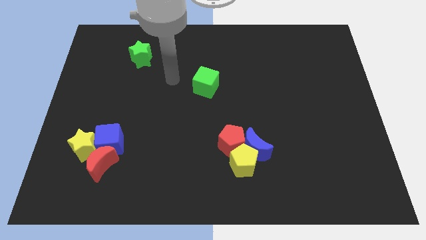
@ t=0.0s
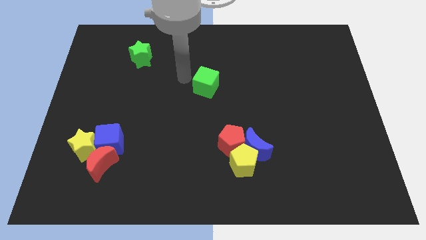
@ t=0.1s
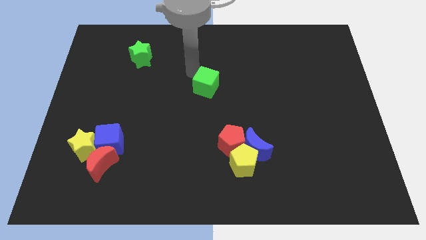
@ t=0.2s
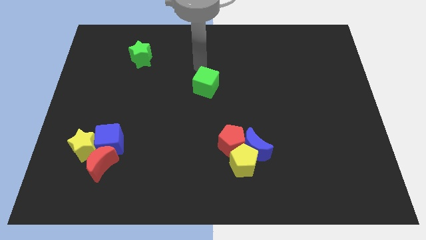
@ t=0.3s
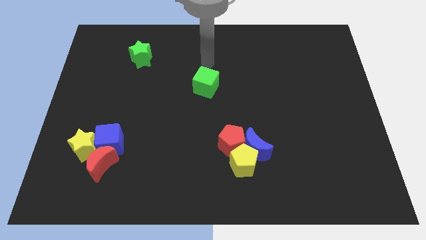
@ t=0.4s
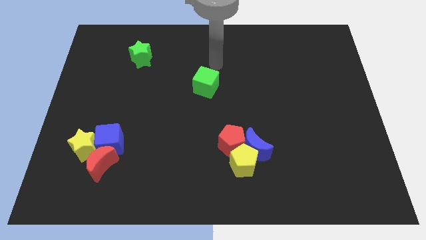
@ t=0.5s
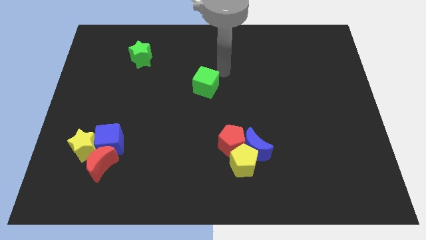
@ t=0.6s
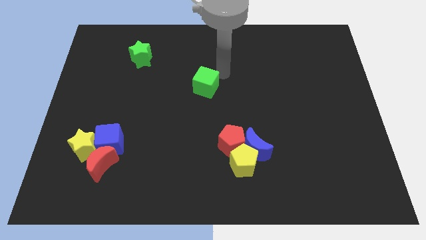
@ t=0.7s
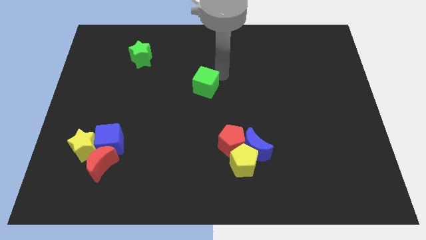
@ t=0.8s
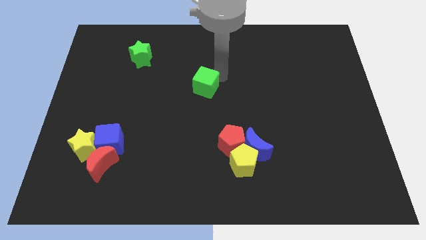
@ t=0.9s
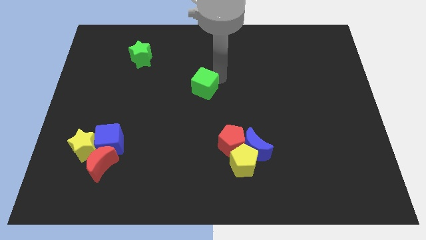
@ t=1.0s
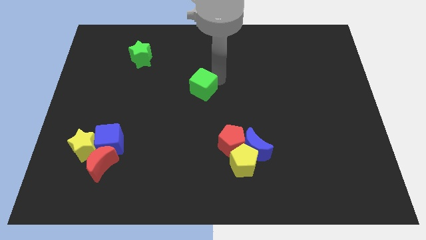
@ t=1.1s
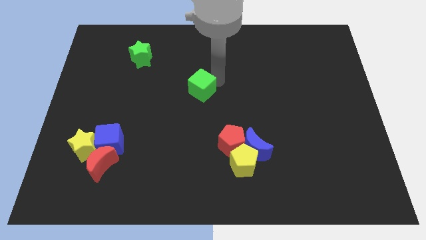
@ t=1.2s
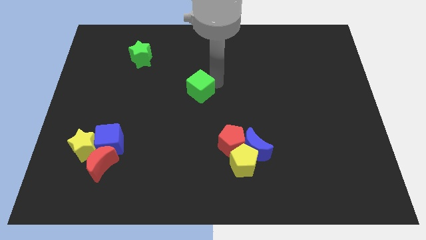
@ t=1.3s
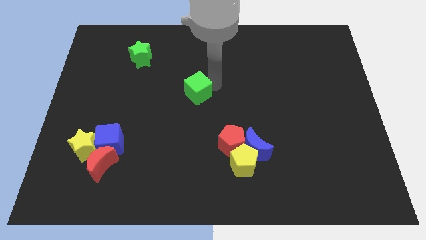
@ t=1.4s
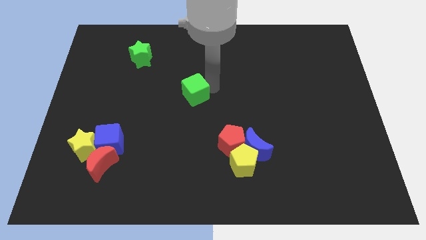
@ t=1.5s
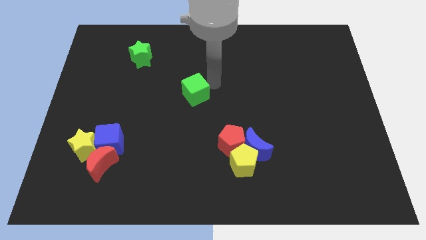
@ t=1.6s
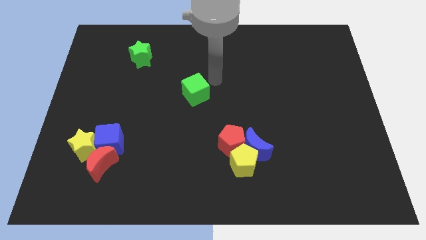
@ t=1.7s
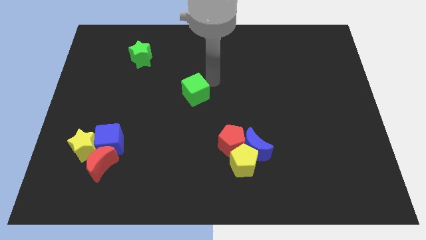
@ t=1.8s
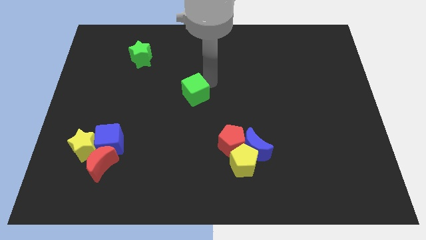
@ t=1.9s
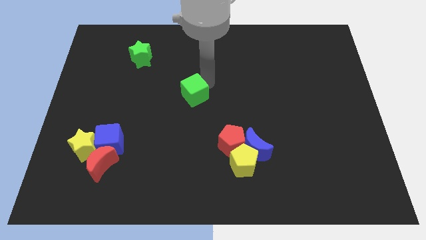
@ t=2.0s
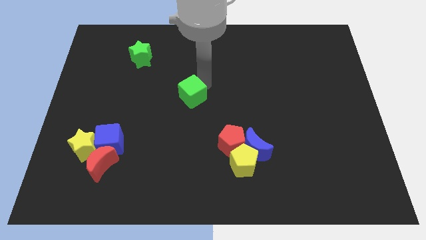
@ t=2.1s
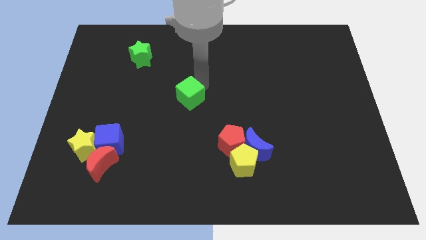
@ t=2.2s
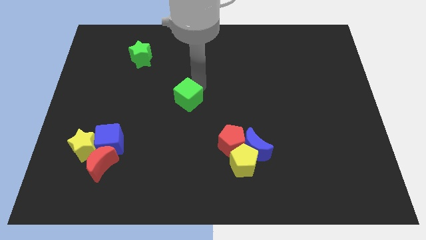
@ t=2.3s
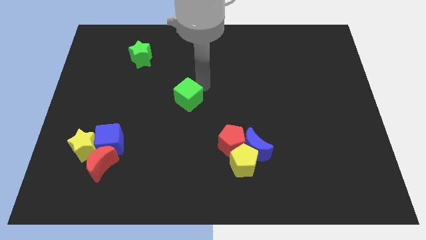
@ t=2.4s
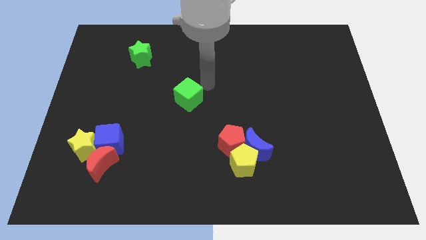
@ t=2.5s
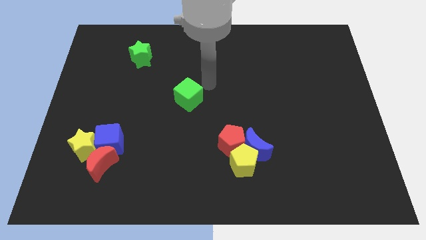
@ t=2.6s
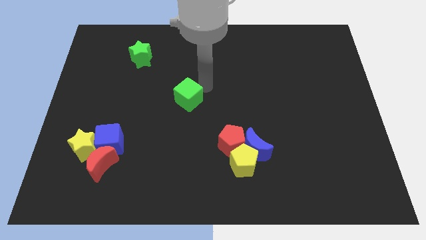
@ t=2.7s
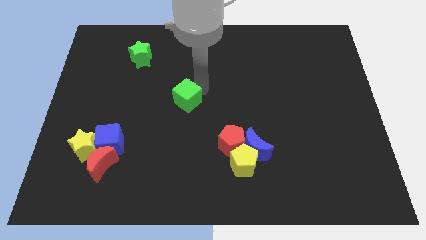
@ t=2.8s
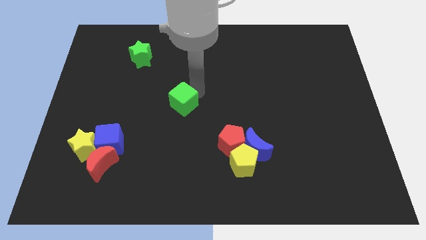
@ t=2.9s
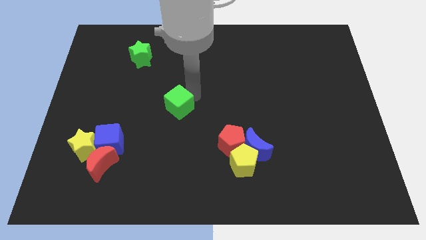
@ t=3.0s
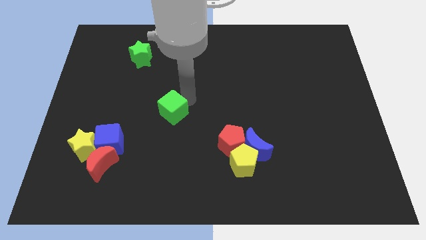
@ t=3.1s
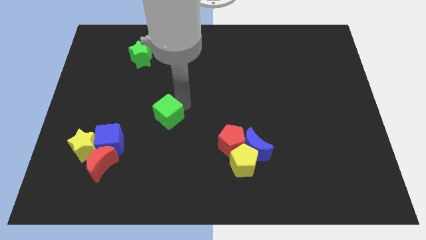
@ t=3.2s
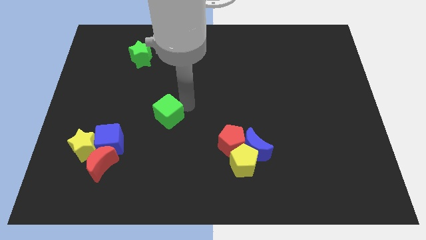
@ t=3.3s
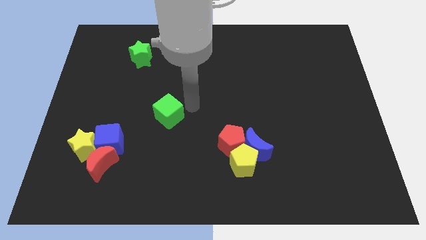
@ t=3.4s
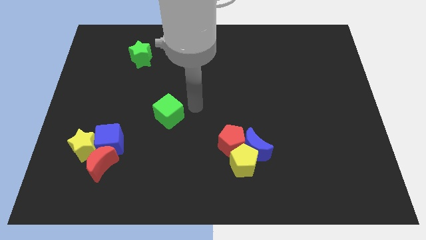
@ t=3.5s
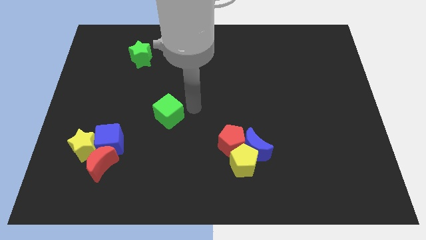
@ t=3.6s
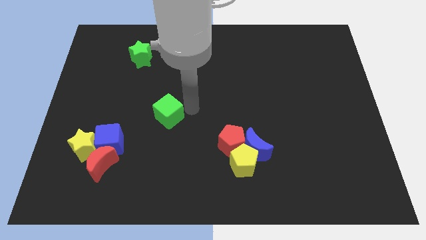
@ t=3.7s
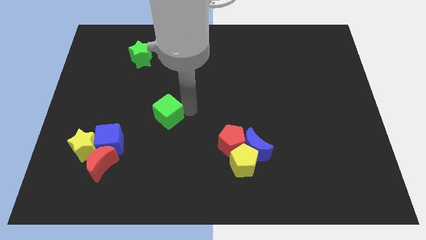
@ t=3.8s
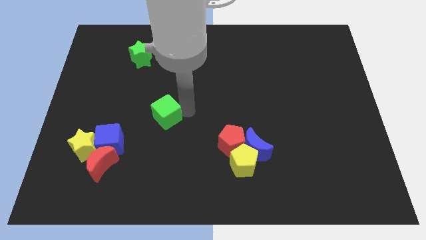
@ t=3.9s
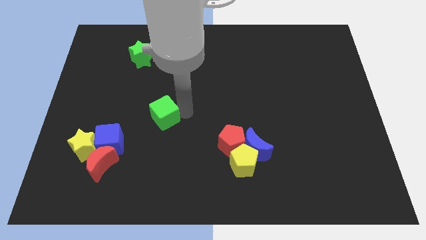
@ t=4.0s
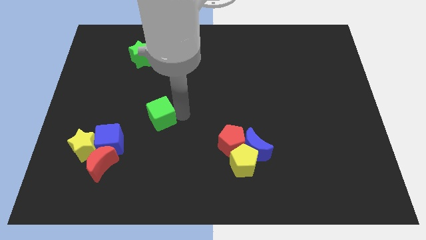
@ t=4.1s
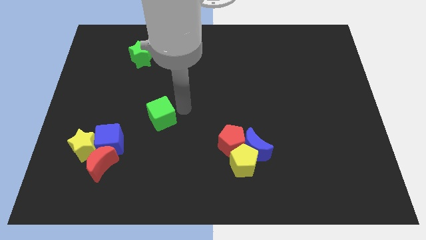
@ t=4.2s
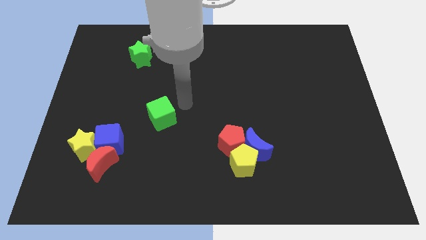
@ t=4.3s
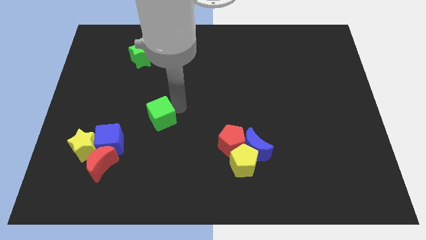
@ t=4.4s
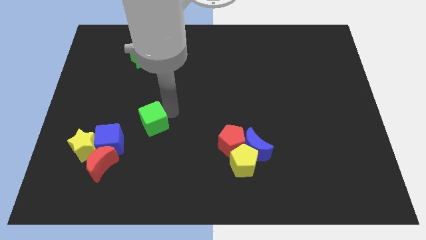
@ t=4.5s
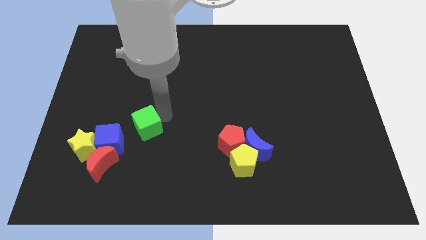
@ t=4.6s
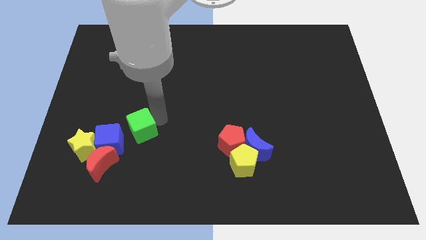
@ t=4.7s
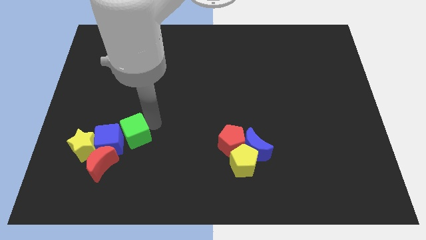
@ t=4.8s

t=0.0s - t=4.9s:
move the green cube to the blue cube

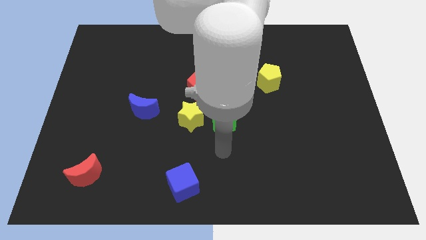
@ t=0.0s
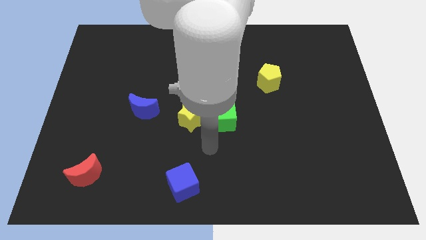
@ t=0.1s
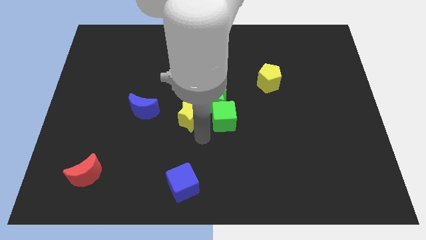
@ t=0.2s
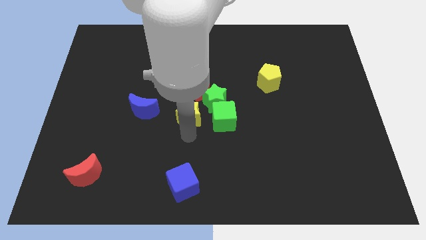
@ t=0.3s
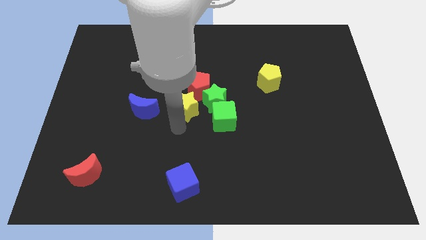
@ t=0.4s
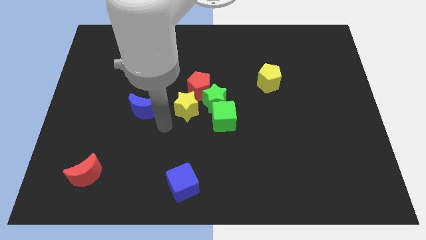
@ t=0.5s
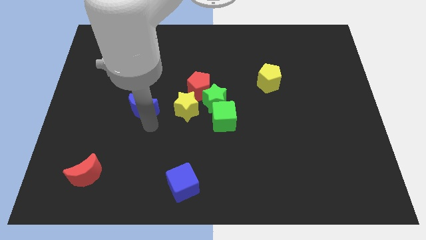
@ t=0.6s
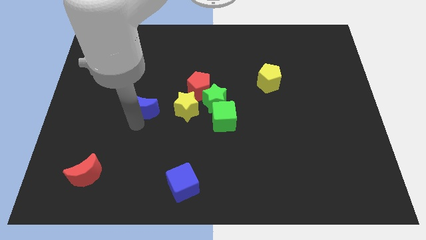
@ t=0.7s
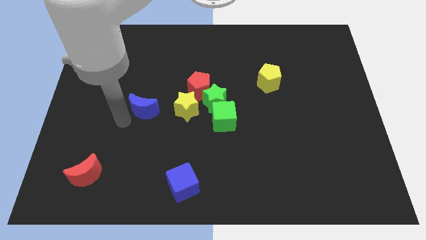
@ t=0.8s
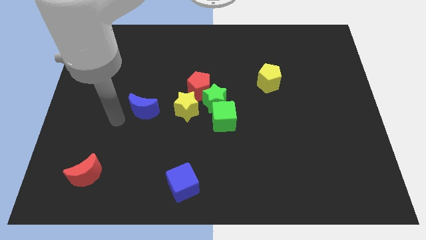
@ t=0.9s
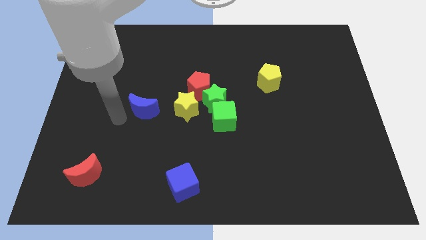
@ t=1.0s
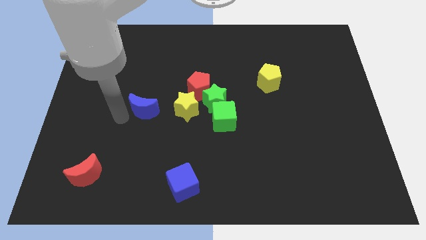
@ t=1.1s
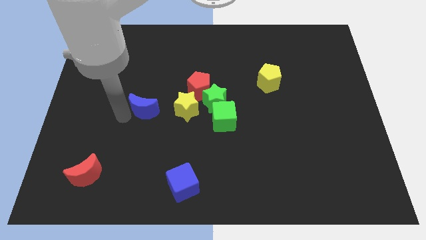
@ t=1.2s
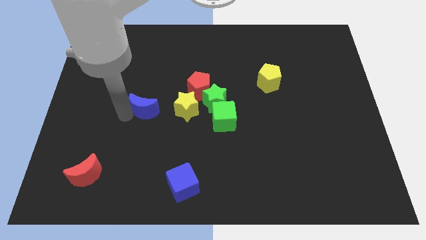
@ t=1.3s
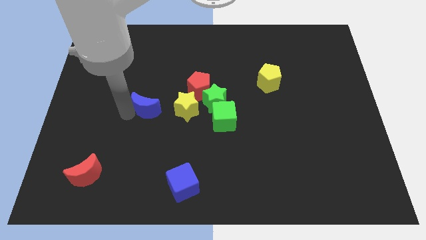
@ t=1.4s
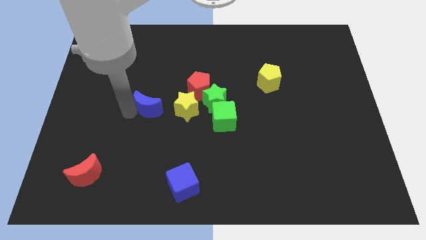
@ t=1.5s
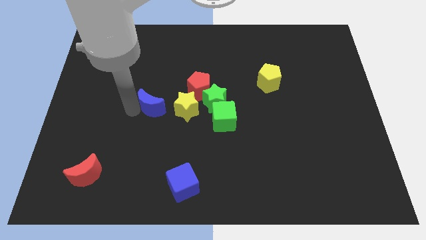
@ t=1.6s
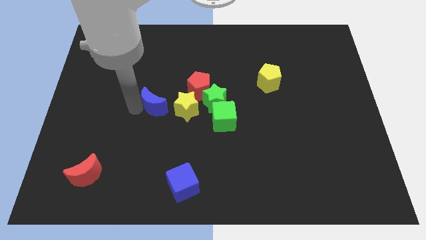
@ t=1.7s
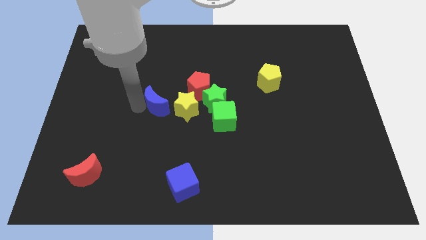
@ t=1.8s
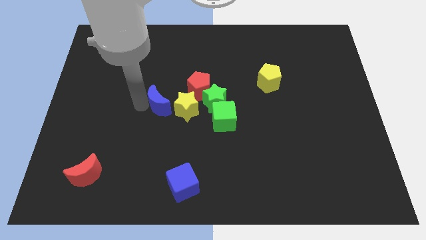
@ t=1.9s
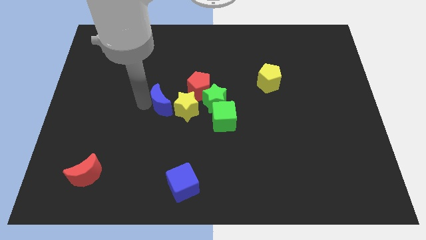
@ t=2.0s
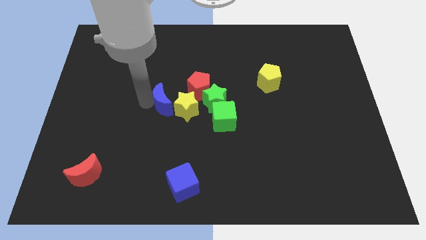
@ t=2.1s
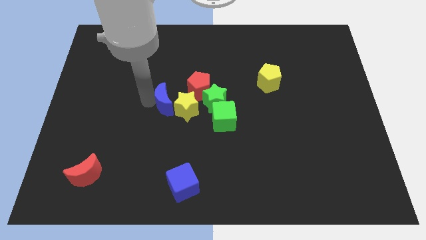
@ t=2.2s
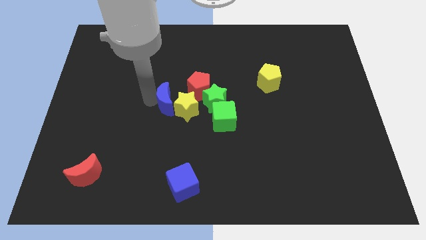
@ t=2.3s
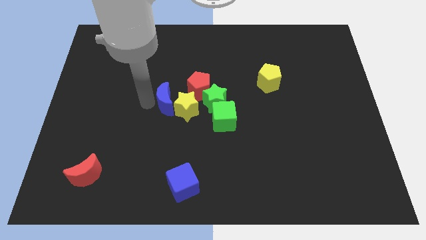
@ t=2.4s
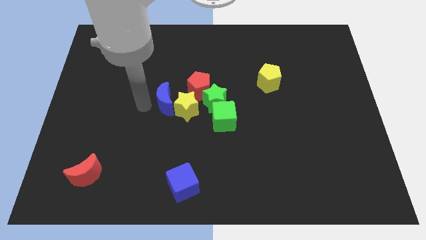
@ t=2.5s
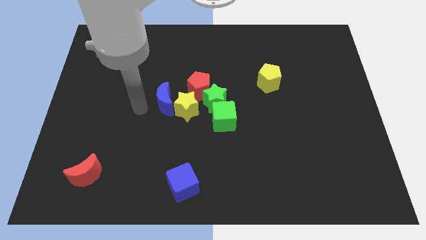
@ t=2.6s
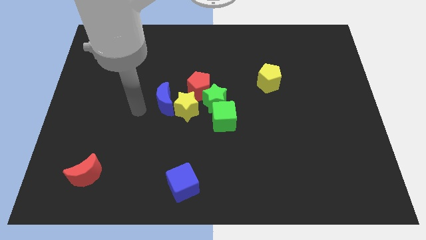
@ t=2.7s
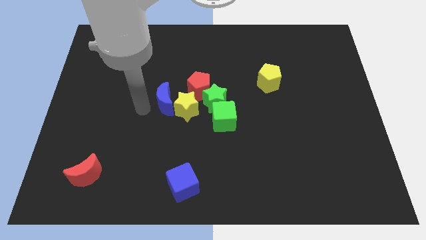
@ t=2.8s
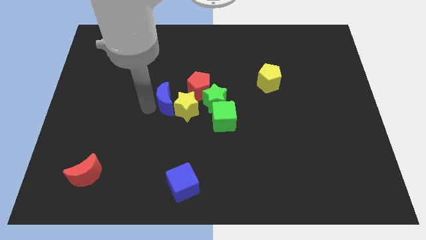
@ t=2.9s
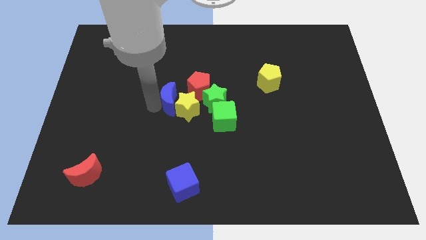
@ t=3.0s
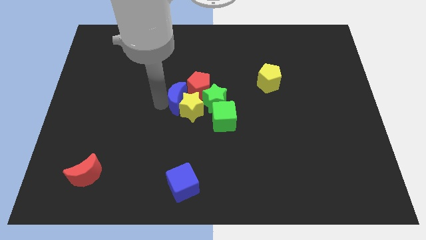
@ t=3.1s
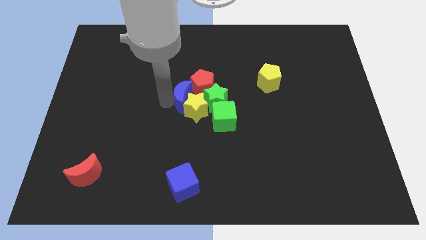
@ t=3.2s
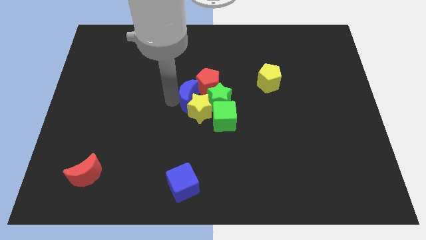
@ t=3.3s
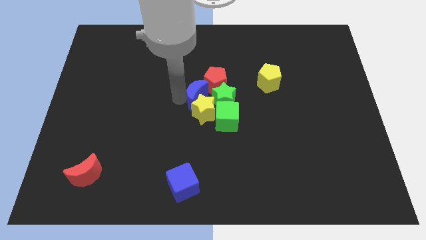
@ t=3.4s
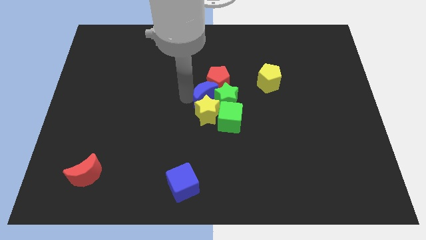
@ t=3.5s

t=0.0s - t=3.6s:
push the blue moon to the green star
